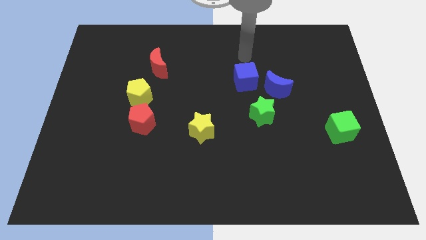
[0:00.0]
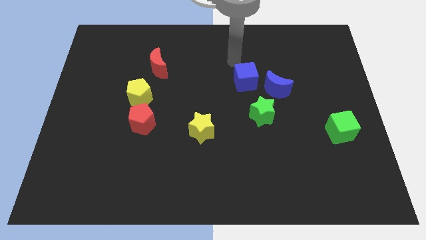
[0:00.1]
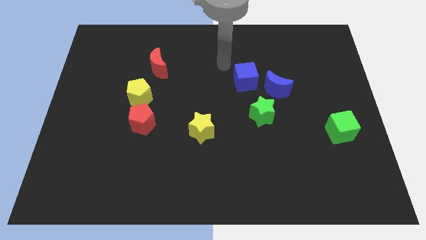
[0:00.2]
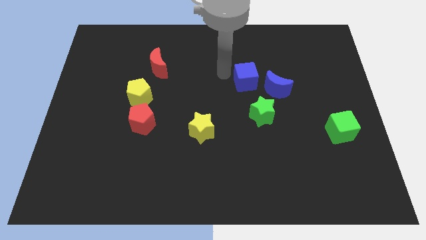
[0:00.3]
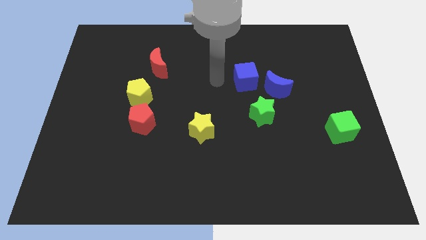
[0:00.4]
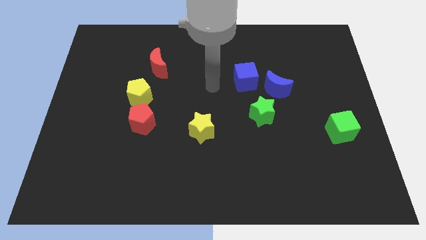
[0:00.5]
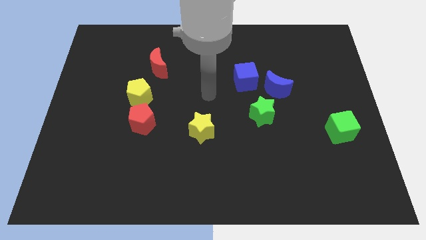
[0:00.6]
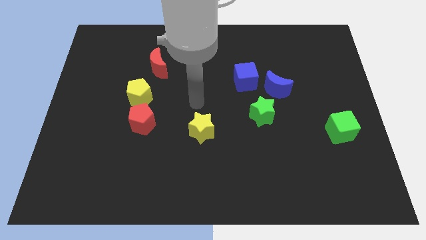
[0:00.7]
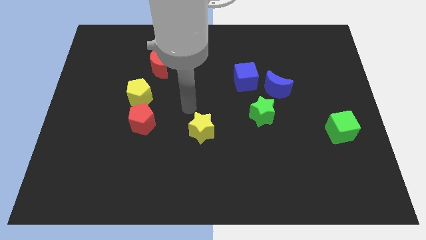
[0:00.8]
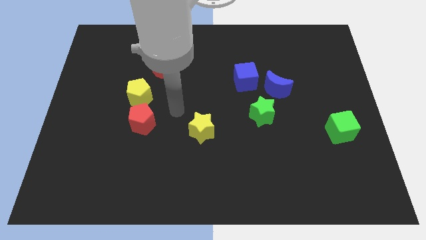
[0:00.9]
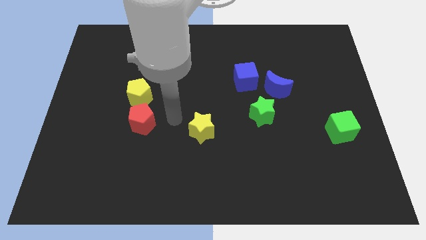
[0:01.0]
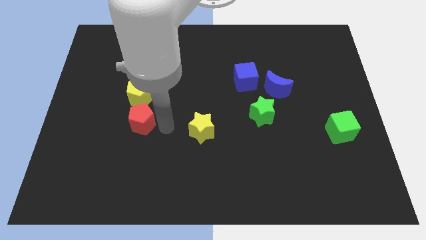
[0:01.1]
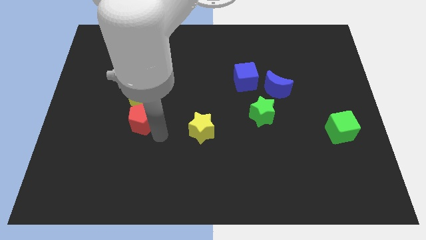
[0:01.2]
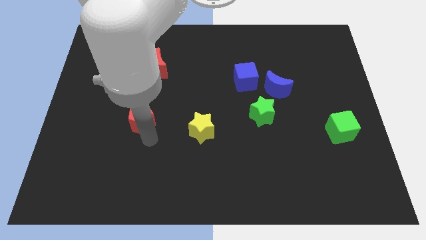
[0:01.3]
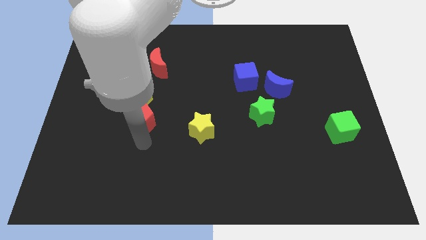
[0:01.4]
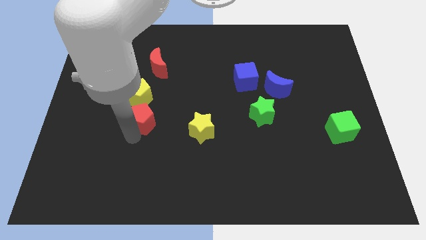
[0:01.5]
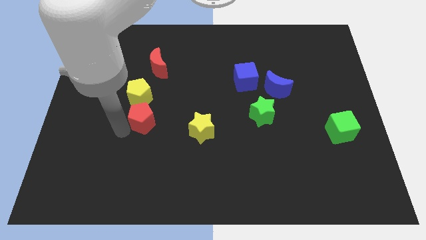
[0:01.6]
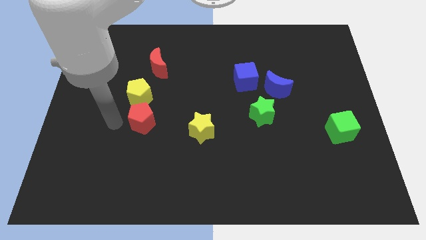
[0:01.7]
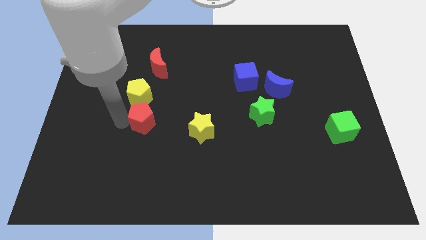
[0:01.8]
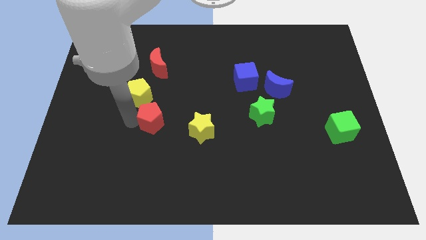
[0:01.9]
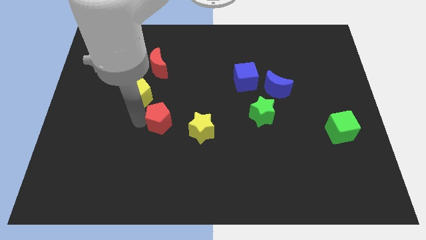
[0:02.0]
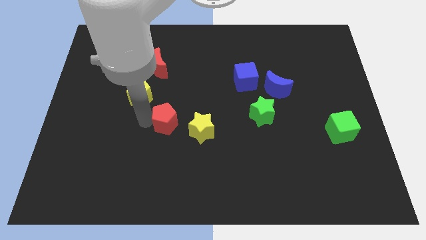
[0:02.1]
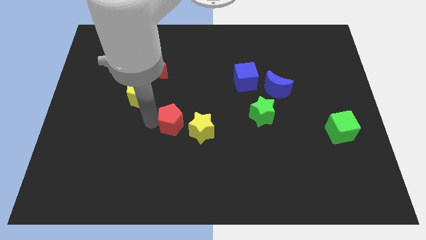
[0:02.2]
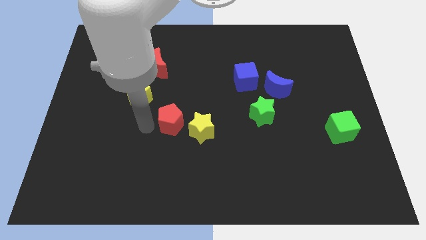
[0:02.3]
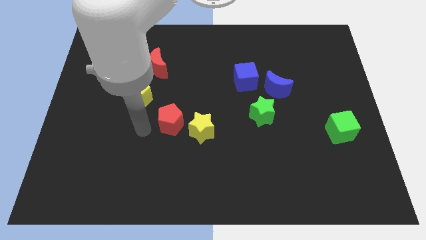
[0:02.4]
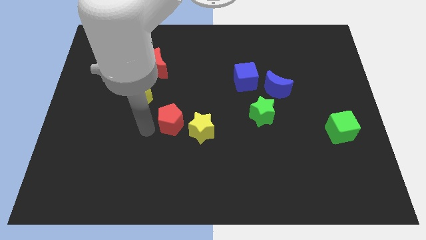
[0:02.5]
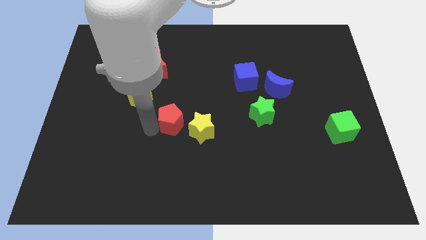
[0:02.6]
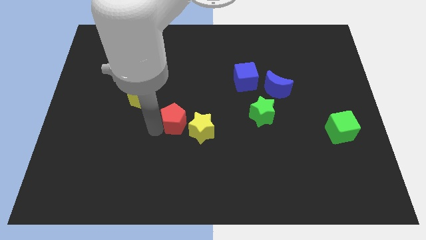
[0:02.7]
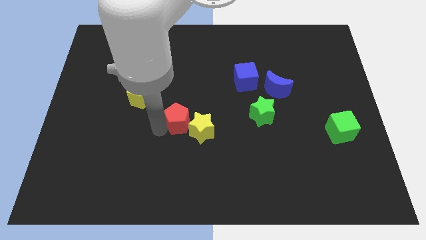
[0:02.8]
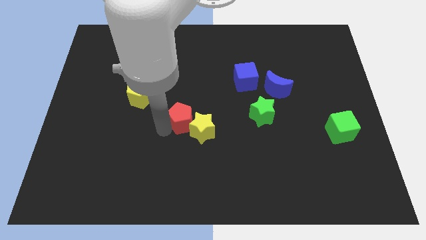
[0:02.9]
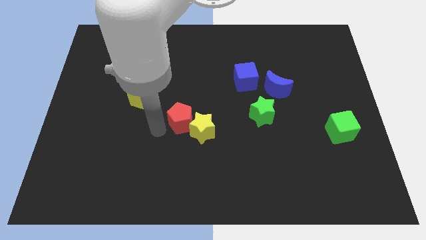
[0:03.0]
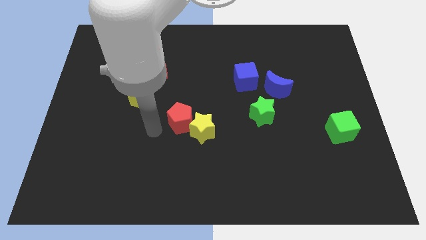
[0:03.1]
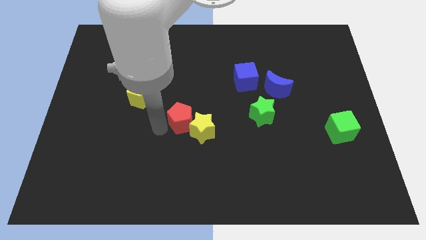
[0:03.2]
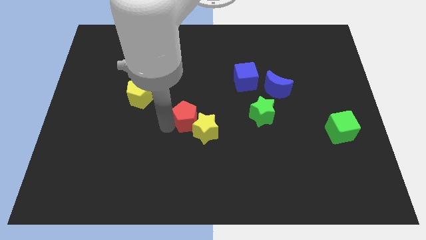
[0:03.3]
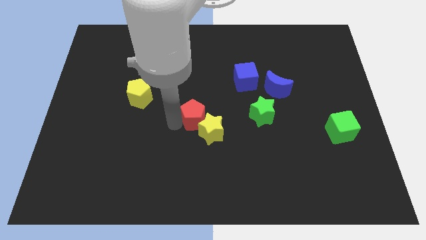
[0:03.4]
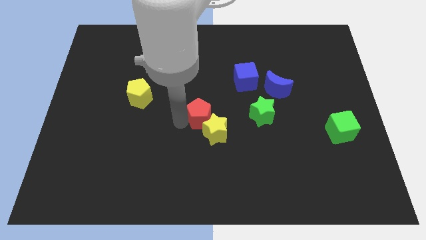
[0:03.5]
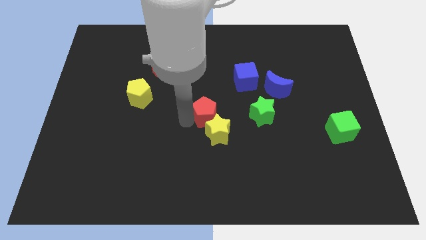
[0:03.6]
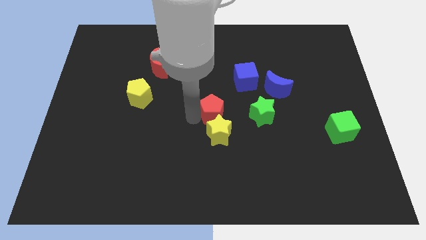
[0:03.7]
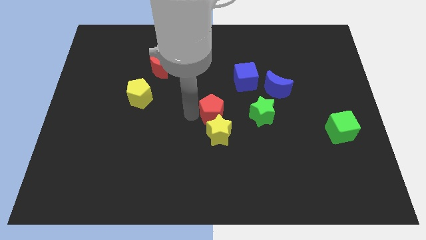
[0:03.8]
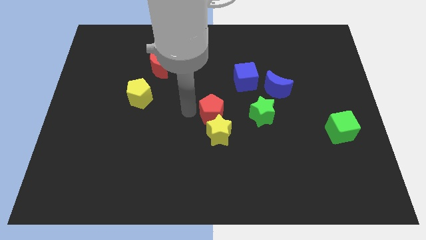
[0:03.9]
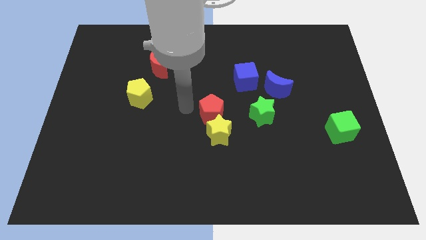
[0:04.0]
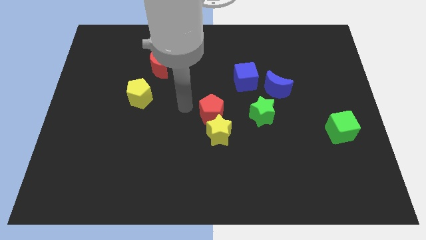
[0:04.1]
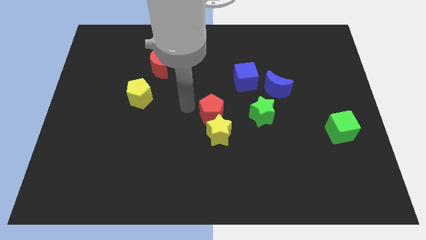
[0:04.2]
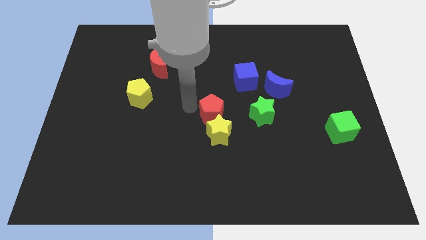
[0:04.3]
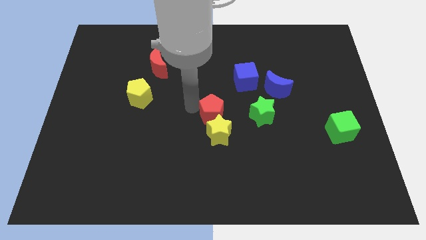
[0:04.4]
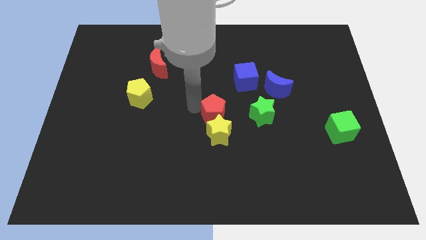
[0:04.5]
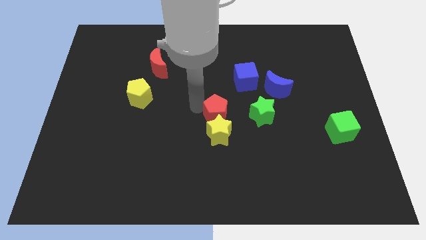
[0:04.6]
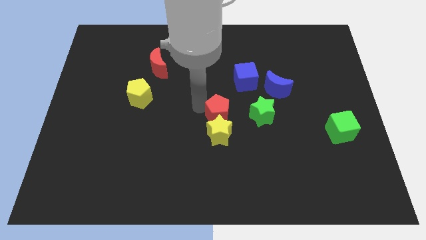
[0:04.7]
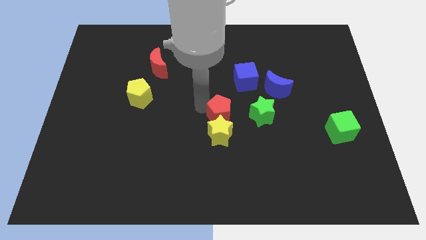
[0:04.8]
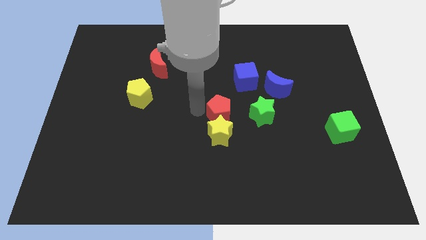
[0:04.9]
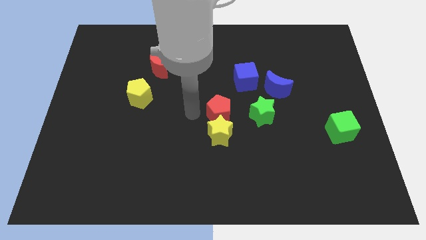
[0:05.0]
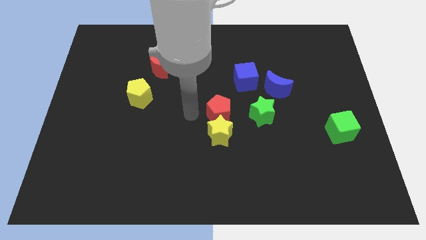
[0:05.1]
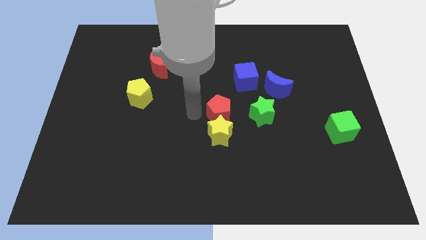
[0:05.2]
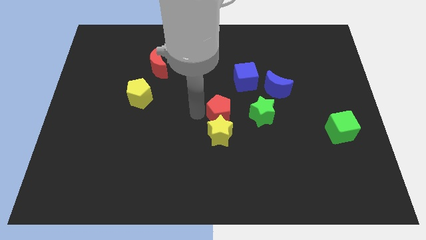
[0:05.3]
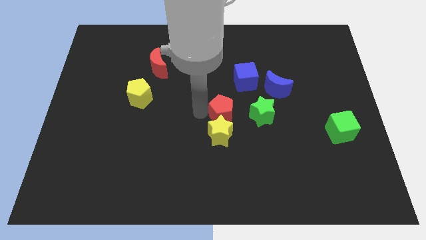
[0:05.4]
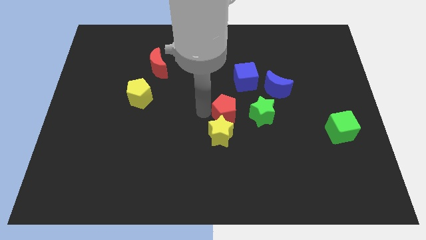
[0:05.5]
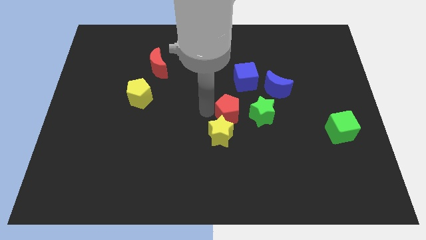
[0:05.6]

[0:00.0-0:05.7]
put the red pentagon below the blue cube

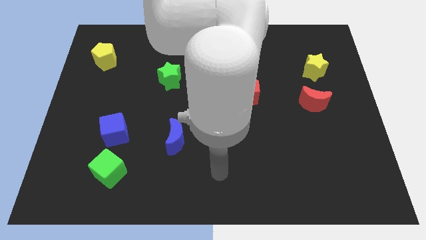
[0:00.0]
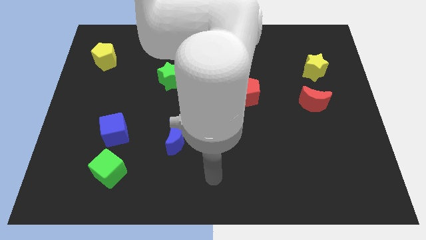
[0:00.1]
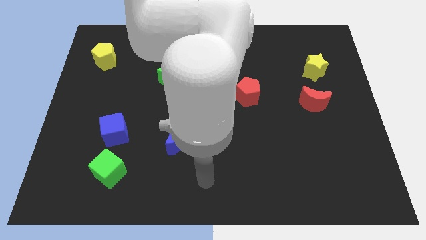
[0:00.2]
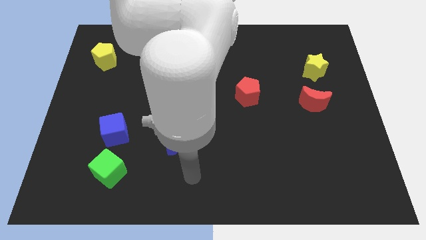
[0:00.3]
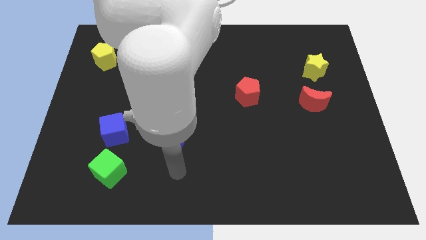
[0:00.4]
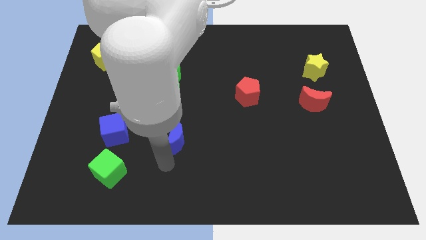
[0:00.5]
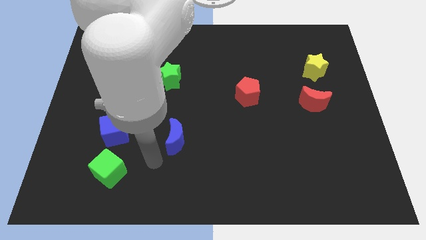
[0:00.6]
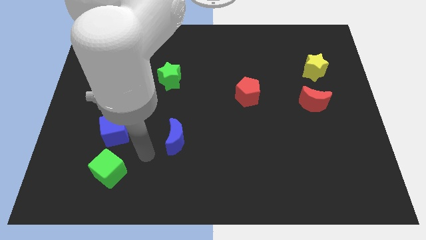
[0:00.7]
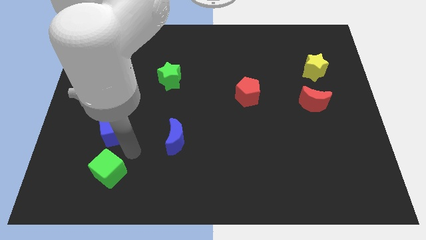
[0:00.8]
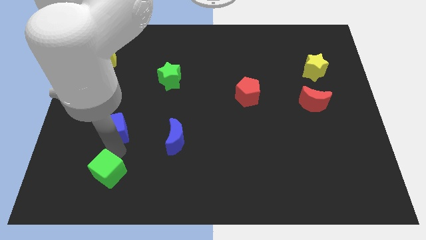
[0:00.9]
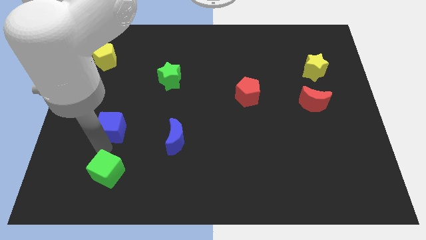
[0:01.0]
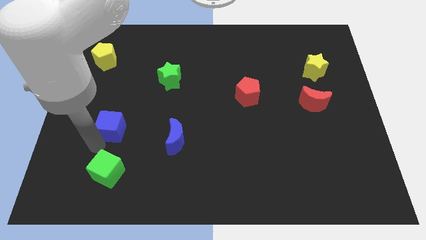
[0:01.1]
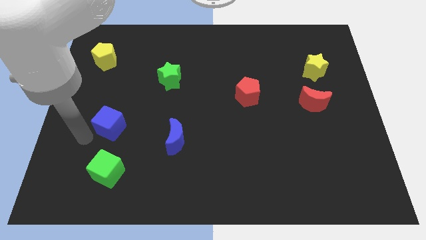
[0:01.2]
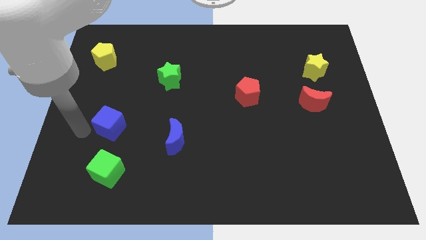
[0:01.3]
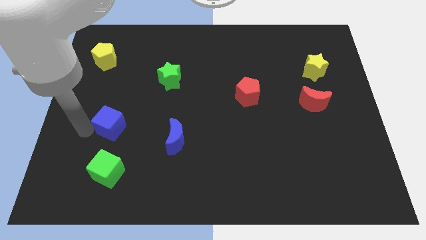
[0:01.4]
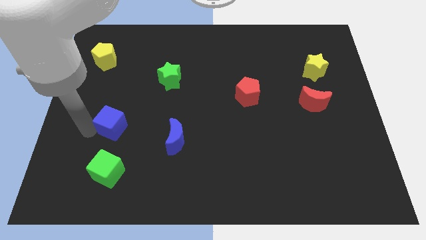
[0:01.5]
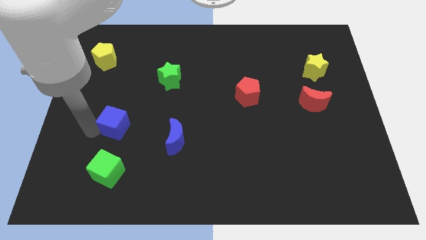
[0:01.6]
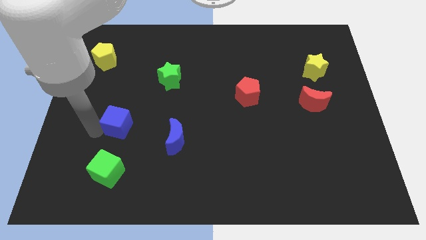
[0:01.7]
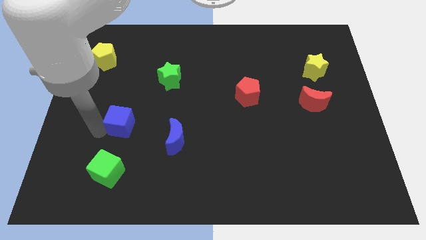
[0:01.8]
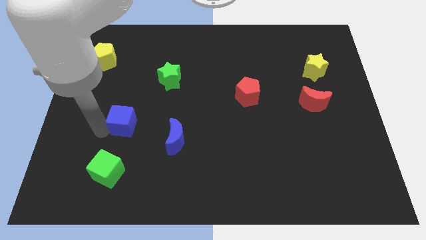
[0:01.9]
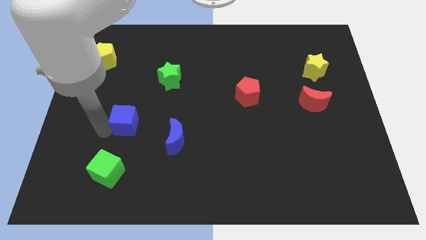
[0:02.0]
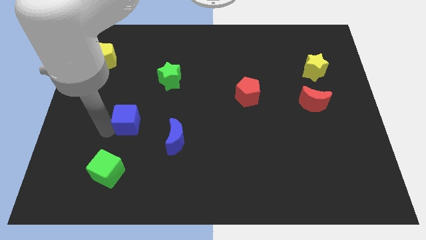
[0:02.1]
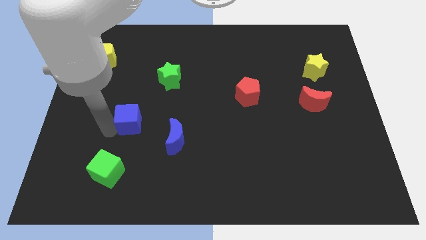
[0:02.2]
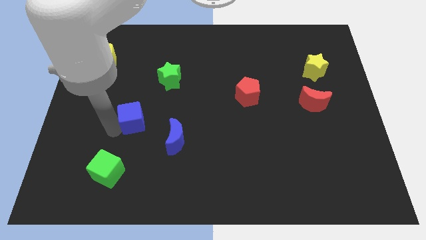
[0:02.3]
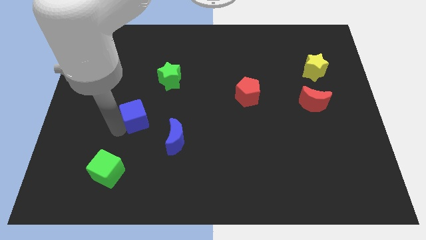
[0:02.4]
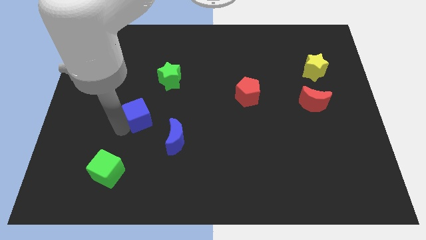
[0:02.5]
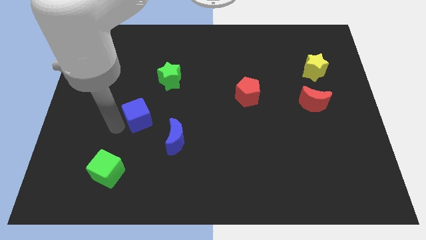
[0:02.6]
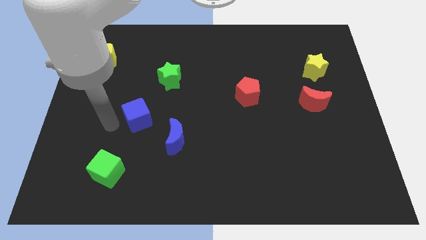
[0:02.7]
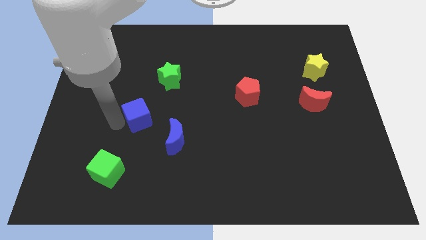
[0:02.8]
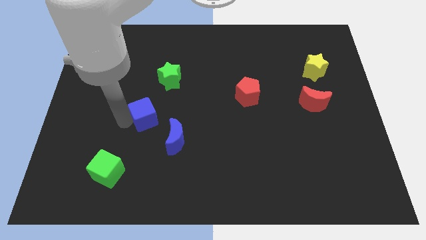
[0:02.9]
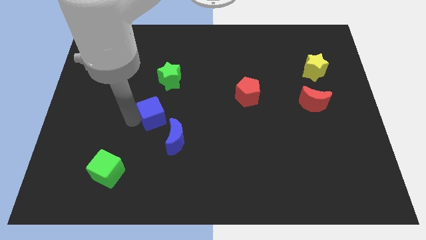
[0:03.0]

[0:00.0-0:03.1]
slide the blue cube to the bottom of the green star
